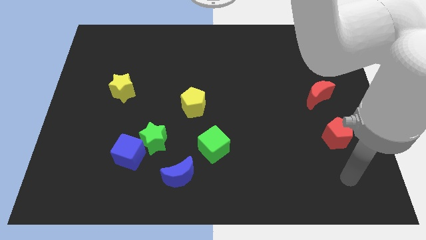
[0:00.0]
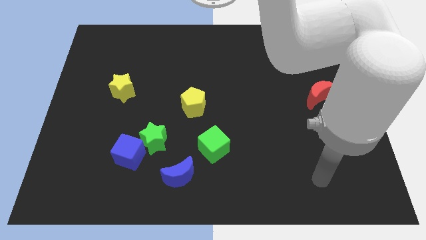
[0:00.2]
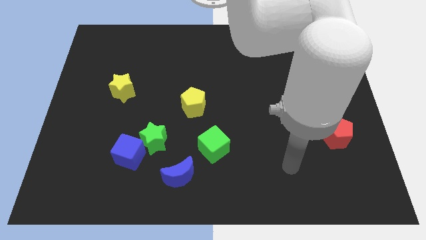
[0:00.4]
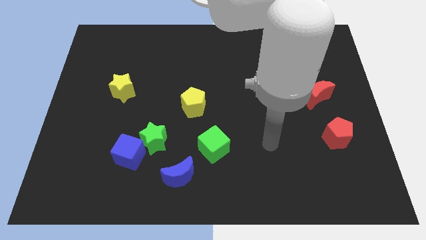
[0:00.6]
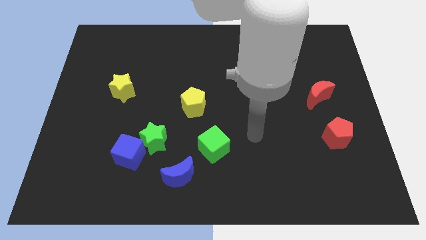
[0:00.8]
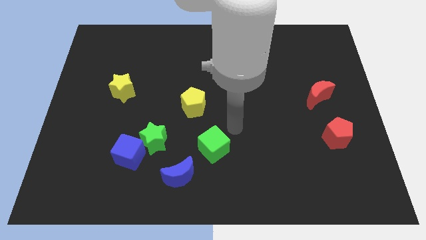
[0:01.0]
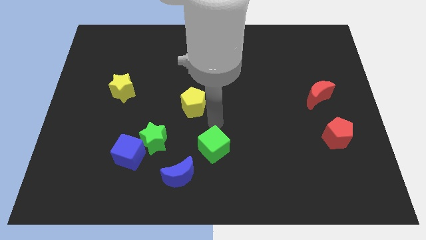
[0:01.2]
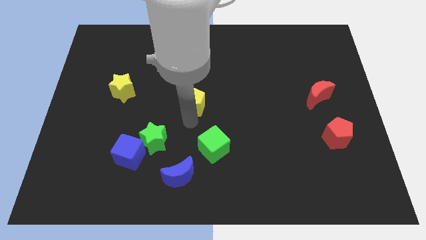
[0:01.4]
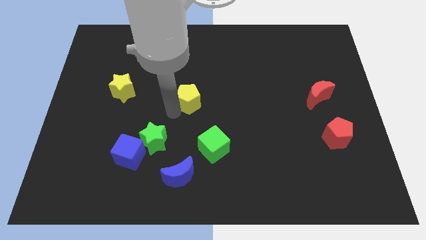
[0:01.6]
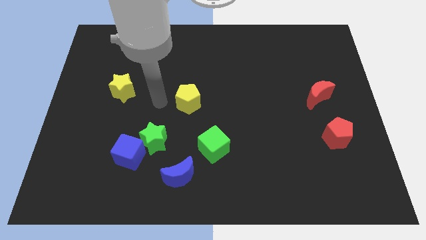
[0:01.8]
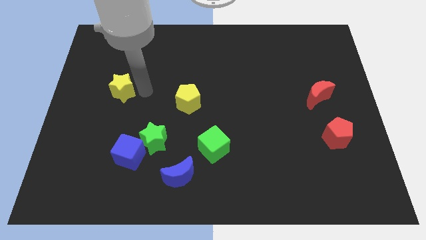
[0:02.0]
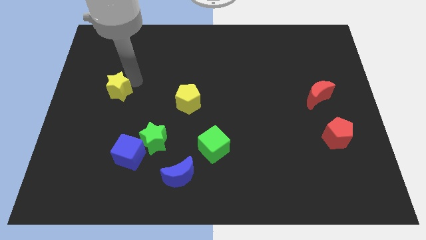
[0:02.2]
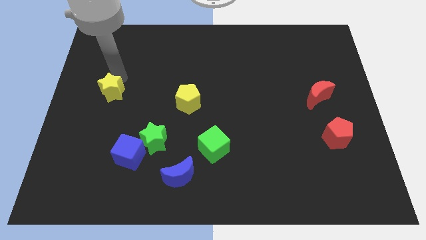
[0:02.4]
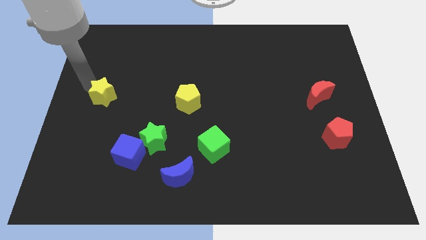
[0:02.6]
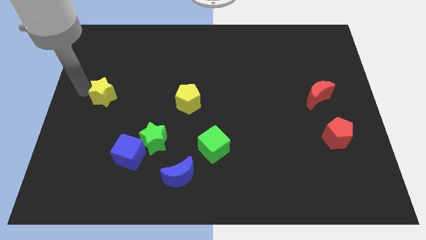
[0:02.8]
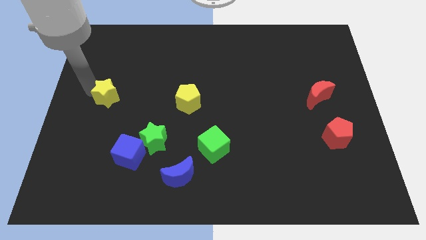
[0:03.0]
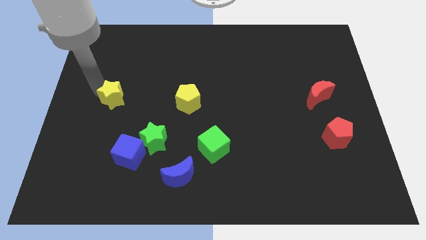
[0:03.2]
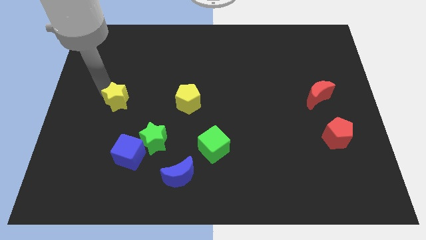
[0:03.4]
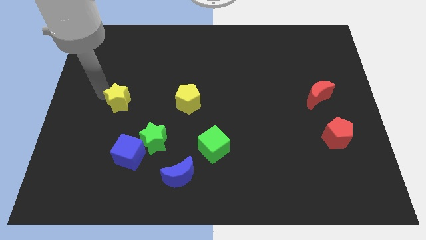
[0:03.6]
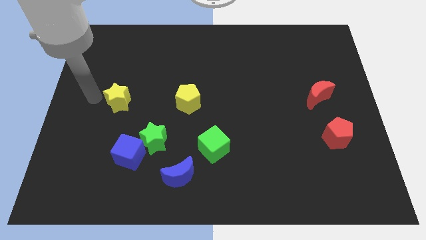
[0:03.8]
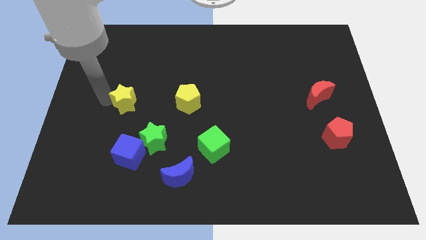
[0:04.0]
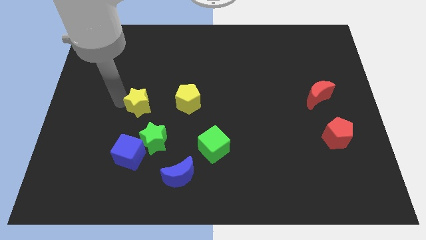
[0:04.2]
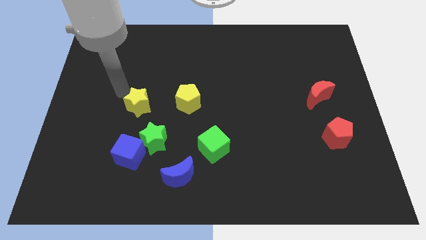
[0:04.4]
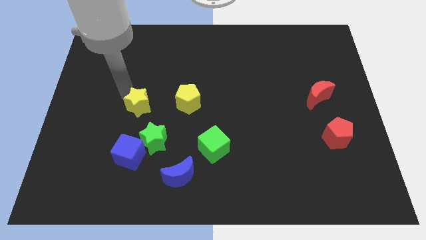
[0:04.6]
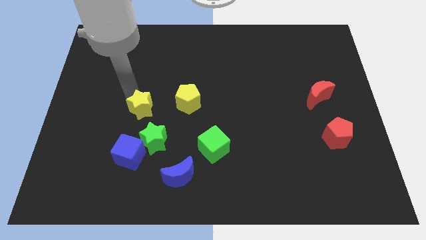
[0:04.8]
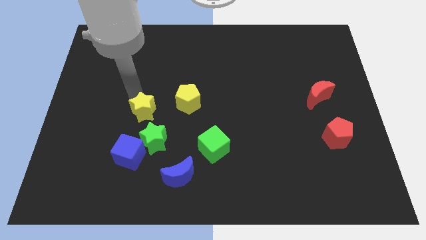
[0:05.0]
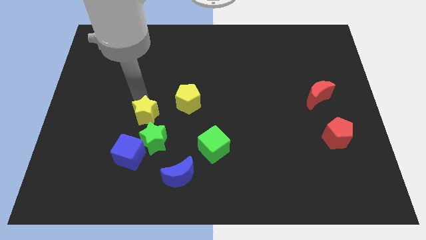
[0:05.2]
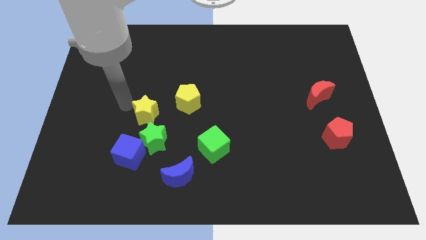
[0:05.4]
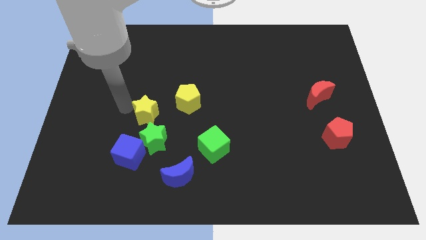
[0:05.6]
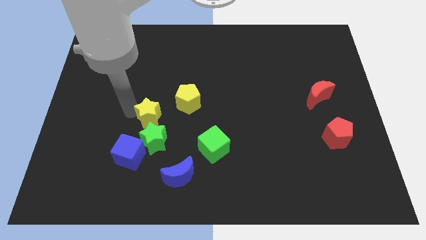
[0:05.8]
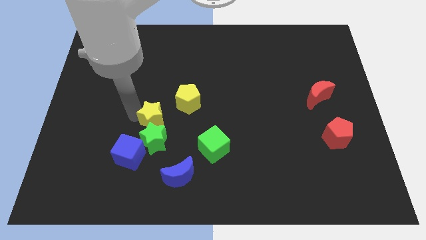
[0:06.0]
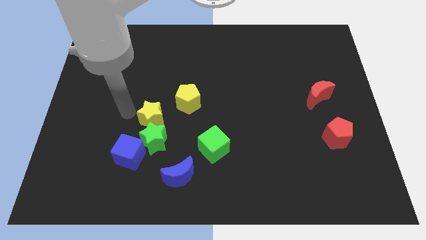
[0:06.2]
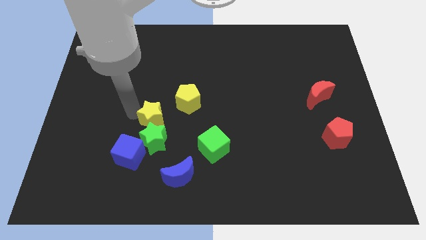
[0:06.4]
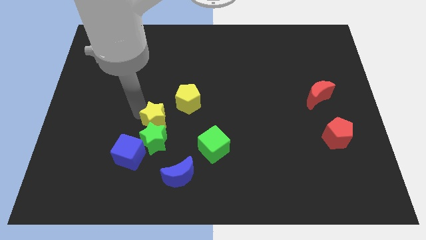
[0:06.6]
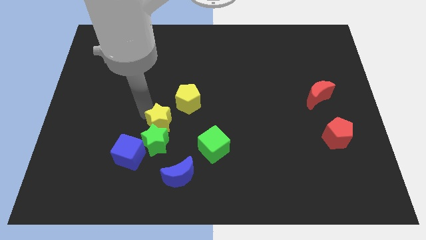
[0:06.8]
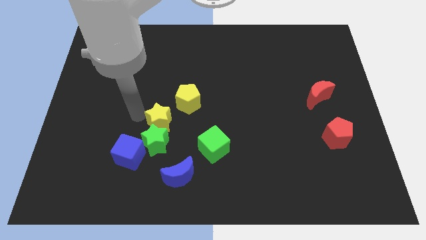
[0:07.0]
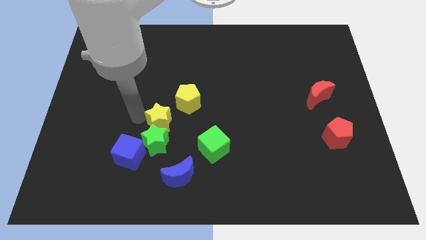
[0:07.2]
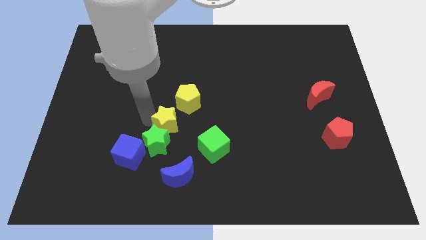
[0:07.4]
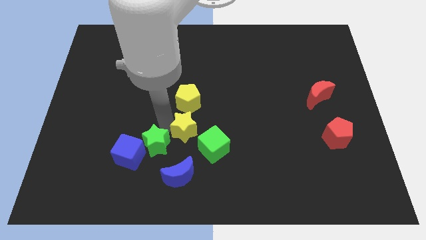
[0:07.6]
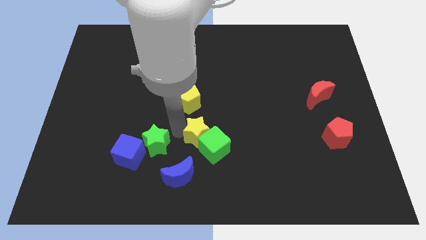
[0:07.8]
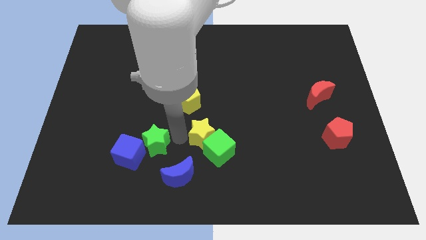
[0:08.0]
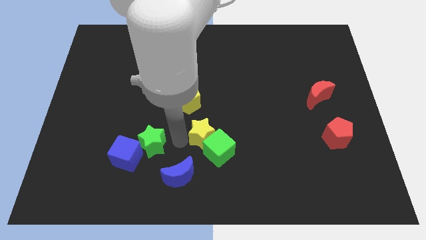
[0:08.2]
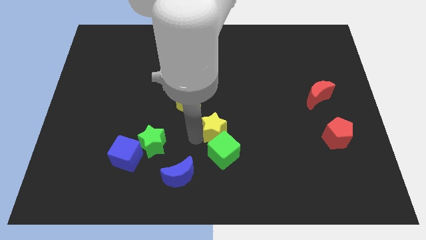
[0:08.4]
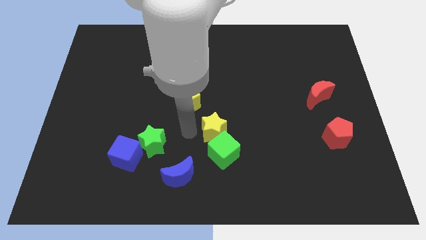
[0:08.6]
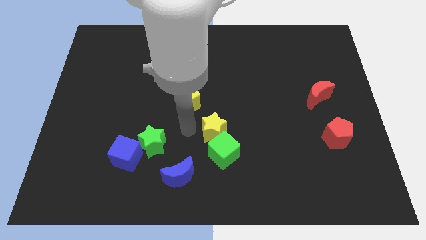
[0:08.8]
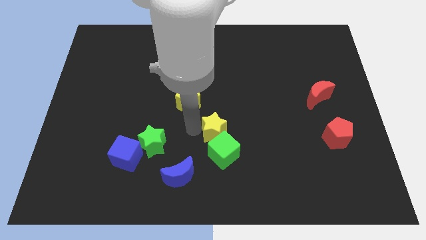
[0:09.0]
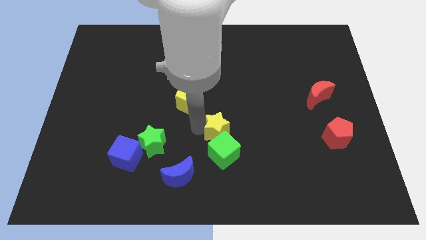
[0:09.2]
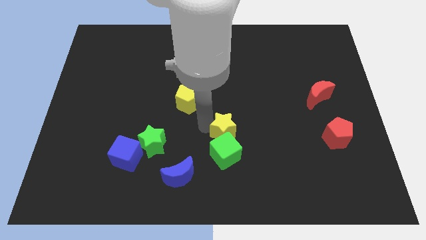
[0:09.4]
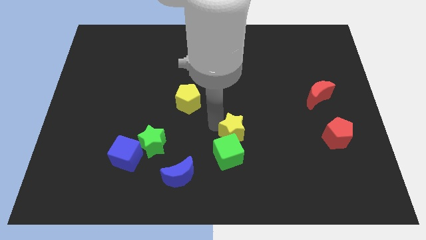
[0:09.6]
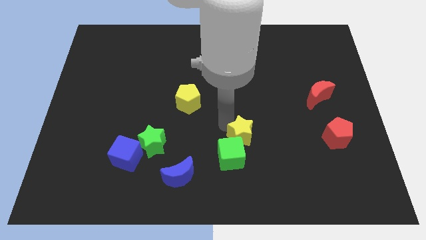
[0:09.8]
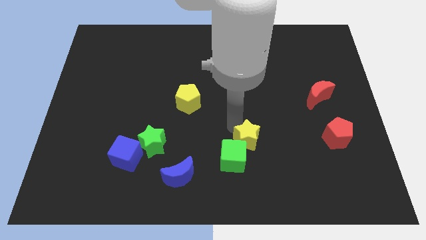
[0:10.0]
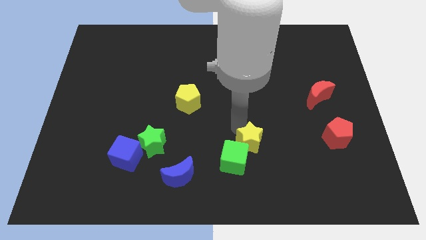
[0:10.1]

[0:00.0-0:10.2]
move the yellow star right of the green cube

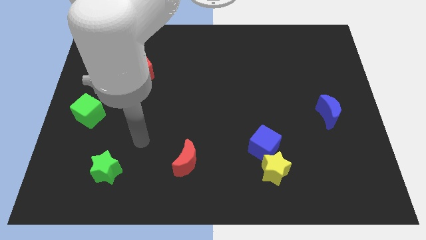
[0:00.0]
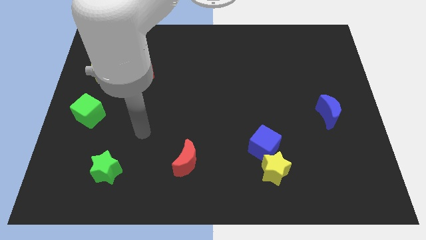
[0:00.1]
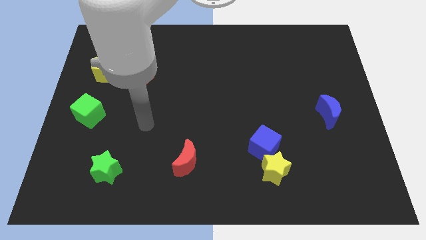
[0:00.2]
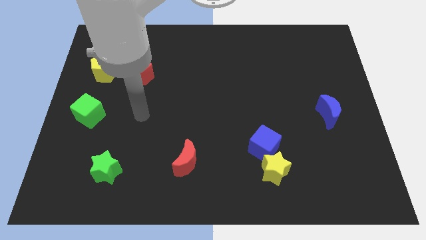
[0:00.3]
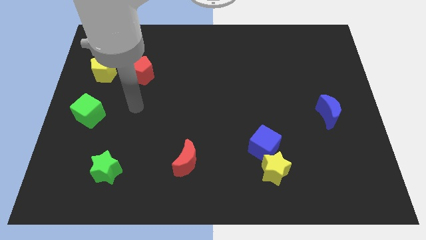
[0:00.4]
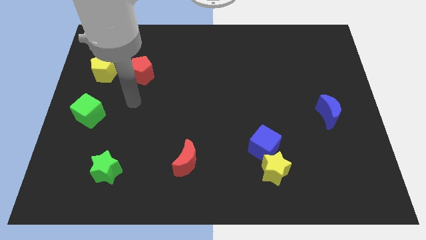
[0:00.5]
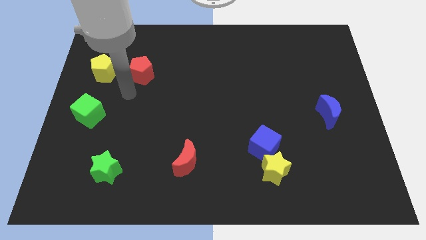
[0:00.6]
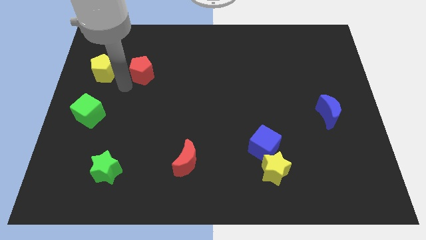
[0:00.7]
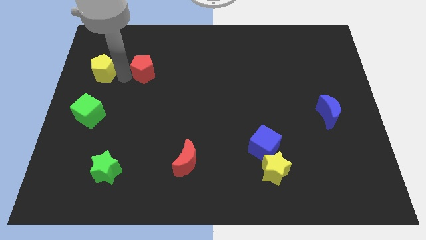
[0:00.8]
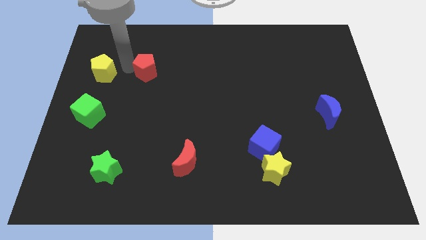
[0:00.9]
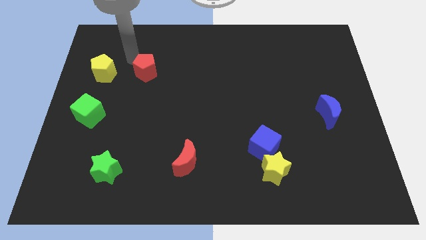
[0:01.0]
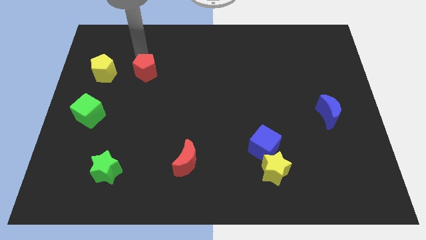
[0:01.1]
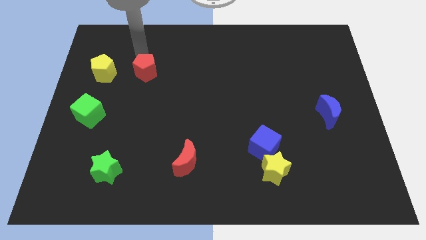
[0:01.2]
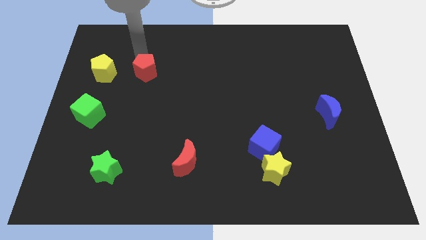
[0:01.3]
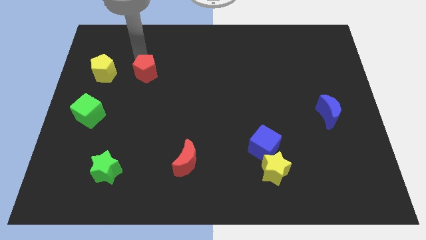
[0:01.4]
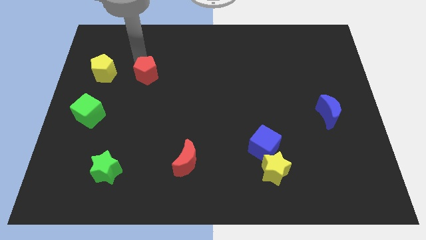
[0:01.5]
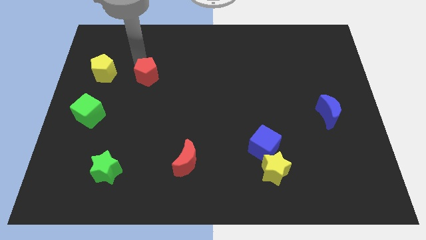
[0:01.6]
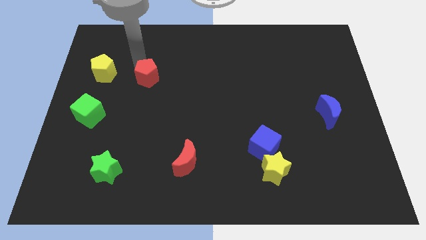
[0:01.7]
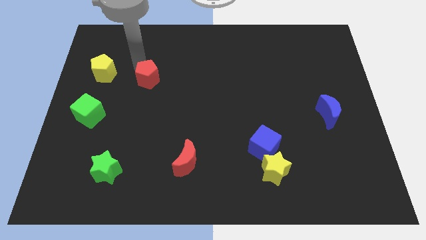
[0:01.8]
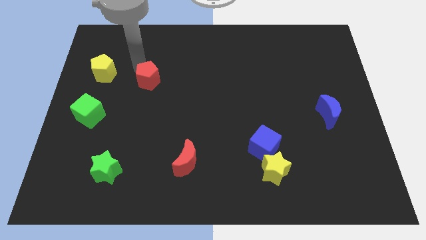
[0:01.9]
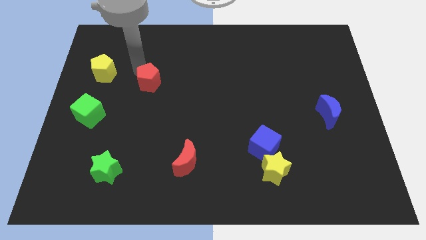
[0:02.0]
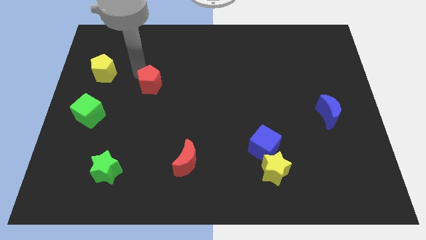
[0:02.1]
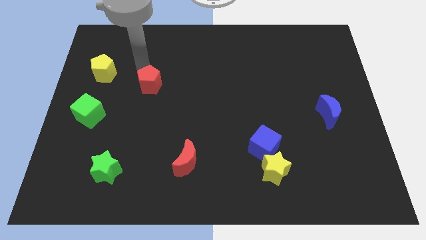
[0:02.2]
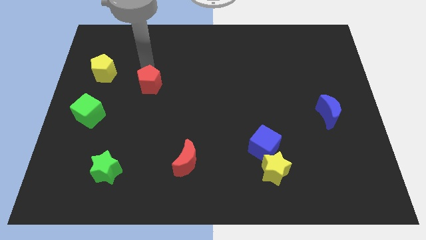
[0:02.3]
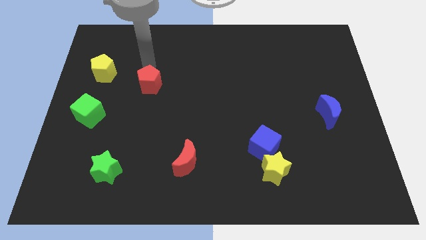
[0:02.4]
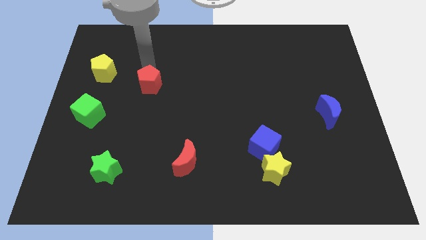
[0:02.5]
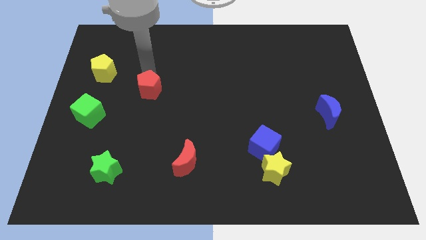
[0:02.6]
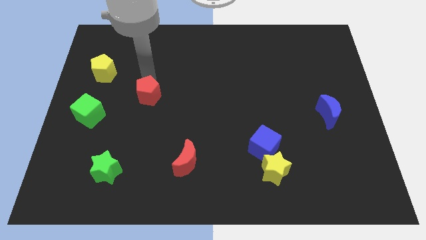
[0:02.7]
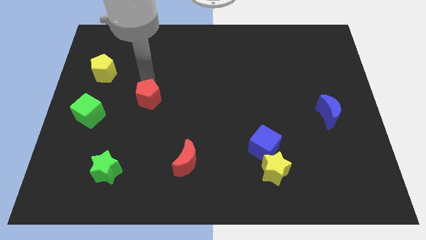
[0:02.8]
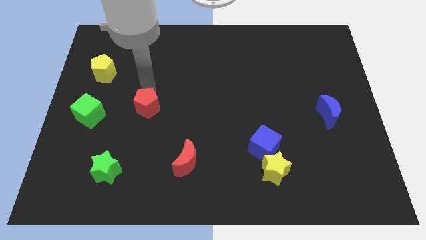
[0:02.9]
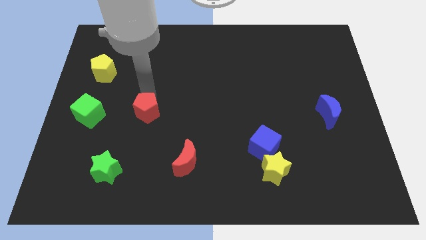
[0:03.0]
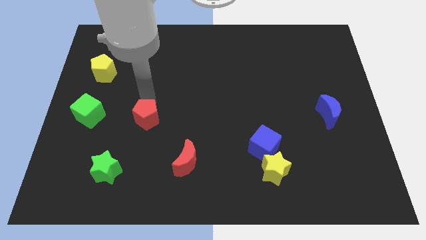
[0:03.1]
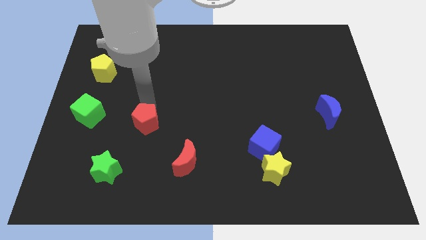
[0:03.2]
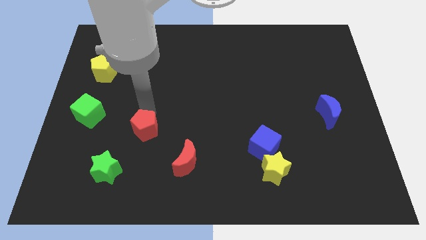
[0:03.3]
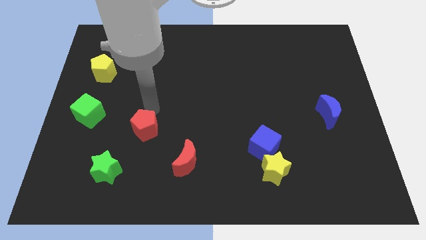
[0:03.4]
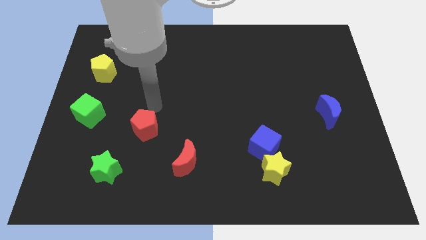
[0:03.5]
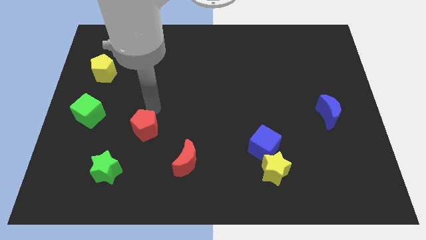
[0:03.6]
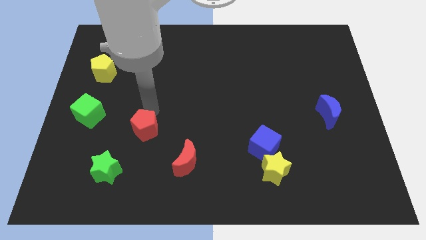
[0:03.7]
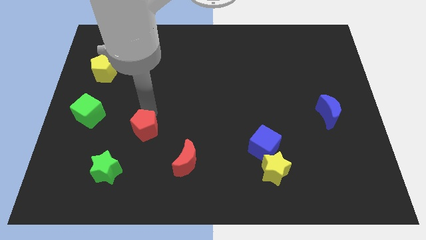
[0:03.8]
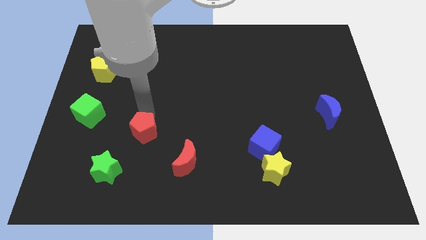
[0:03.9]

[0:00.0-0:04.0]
move the red pentagon to the top right side of the green star
